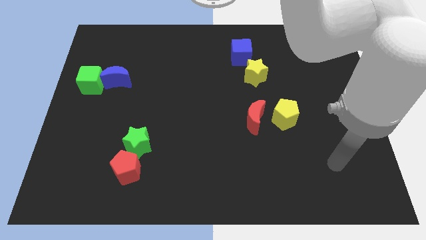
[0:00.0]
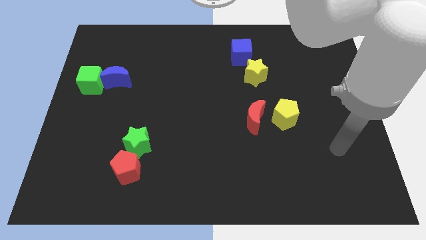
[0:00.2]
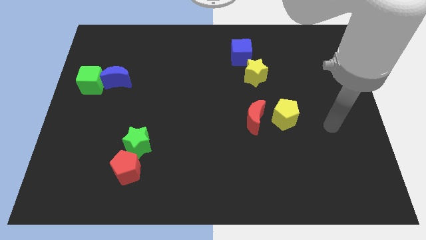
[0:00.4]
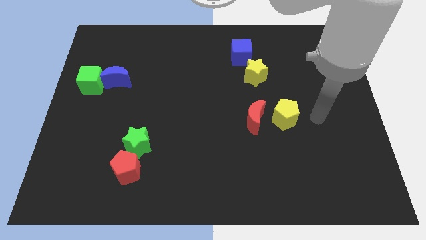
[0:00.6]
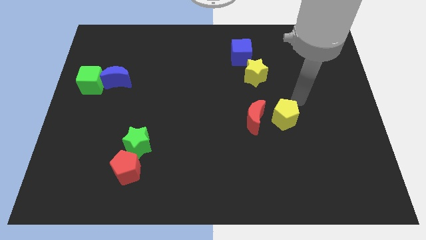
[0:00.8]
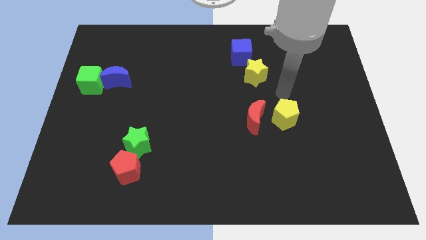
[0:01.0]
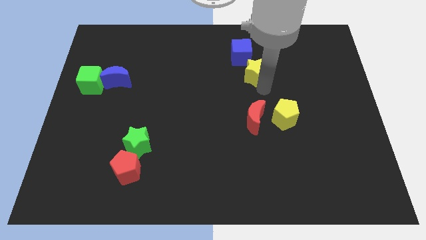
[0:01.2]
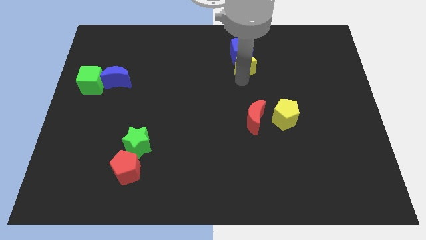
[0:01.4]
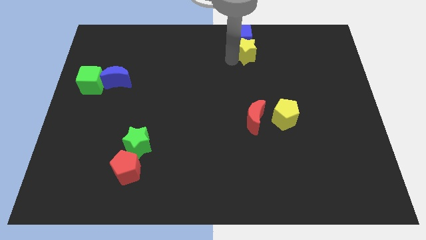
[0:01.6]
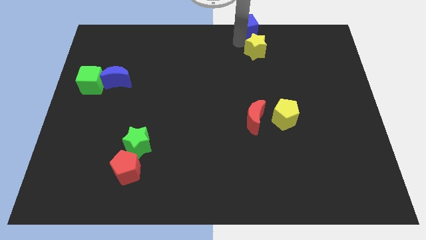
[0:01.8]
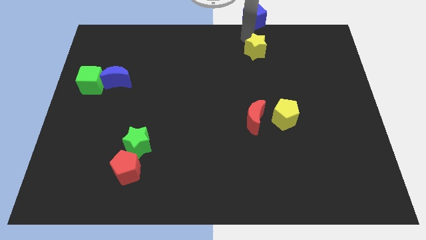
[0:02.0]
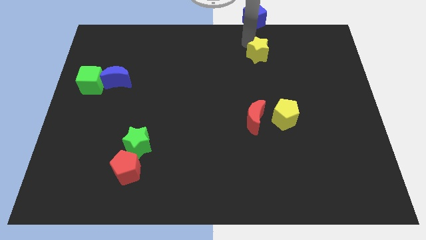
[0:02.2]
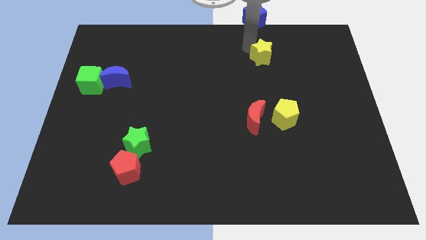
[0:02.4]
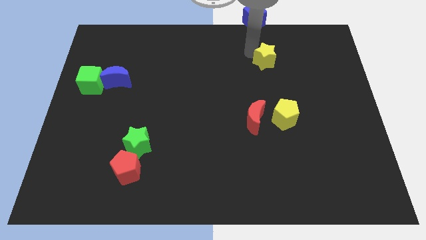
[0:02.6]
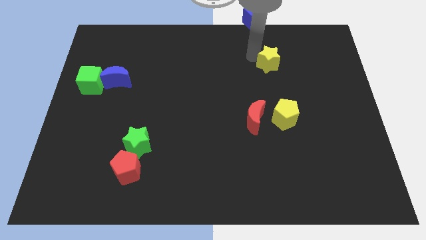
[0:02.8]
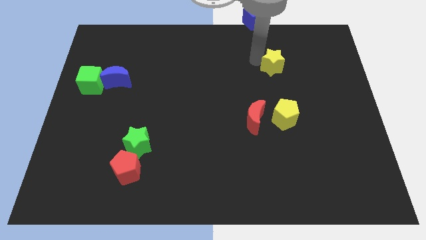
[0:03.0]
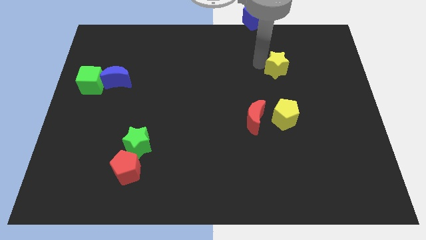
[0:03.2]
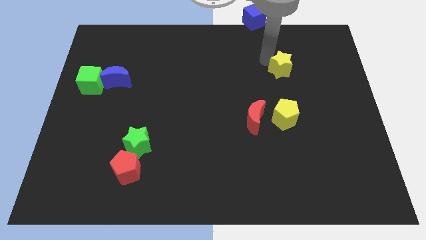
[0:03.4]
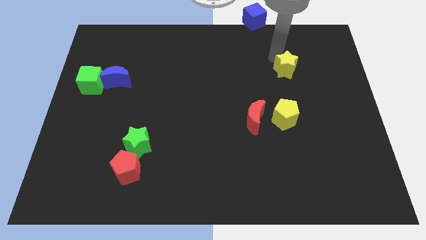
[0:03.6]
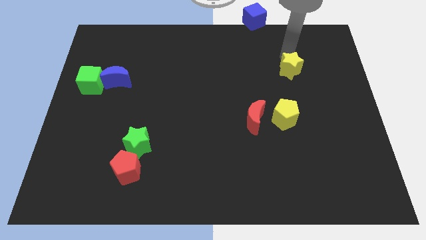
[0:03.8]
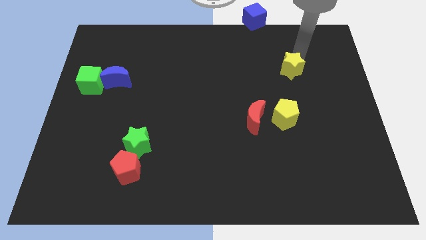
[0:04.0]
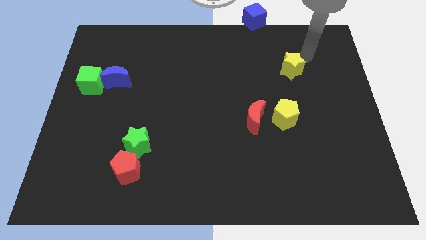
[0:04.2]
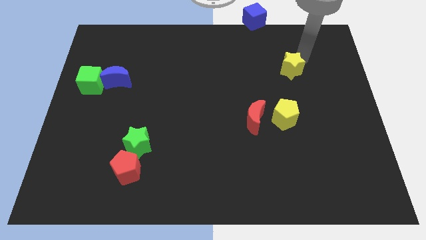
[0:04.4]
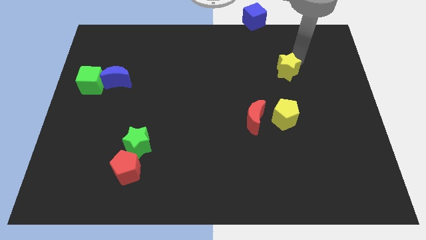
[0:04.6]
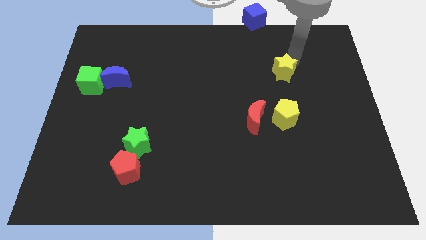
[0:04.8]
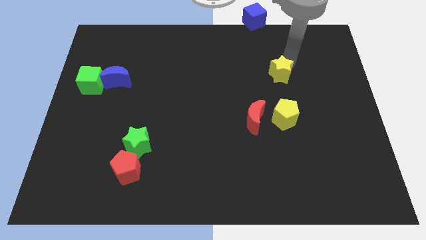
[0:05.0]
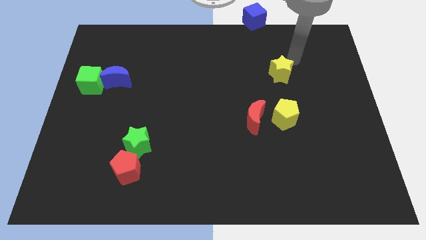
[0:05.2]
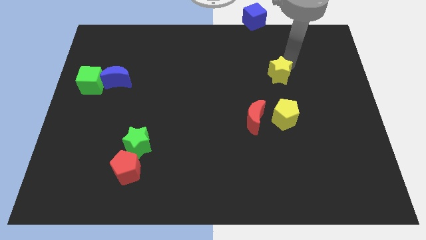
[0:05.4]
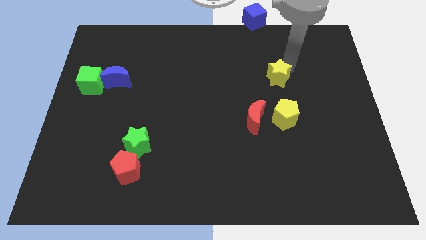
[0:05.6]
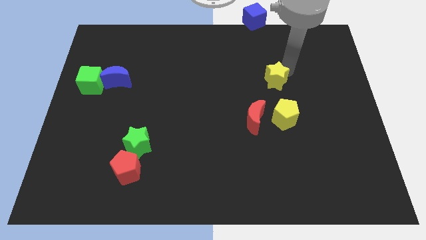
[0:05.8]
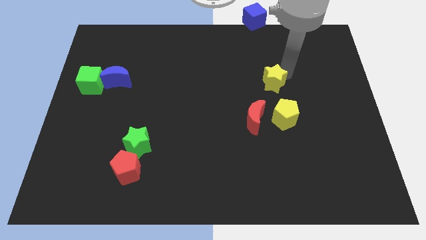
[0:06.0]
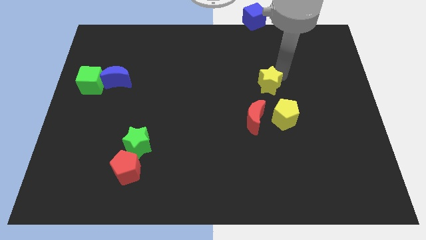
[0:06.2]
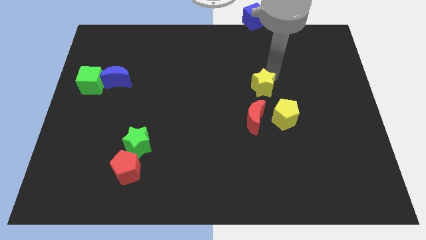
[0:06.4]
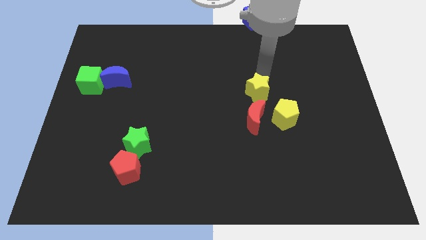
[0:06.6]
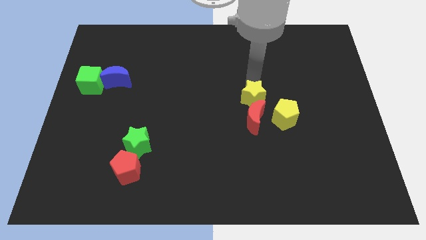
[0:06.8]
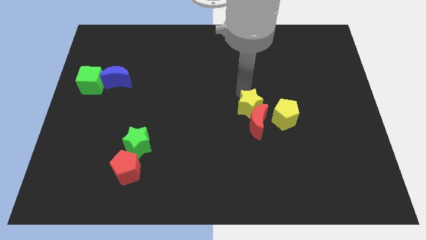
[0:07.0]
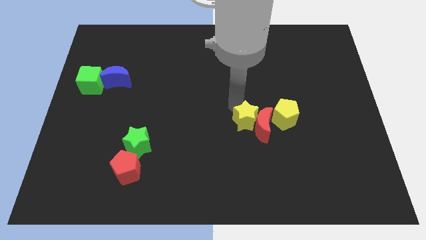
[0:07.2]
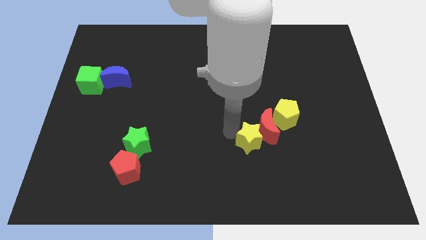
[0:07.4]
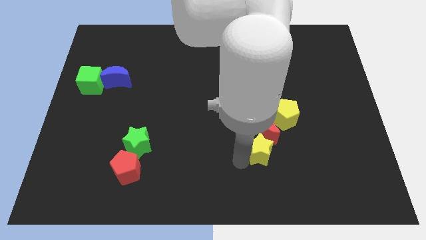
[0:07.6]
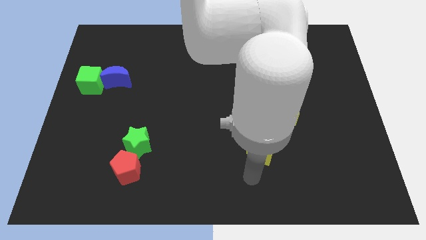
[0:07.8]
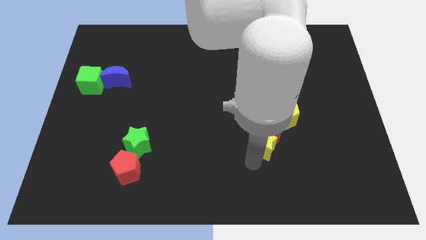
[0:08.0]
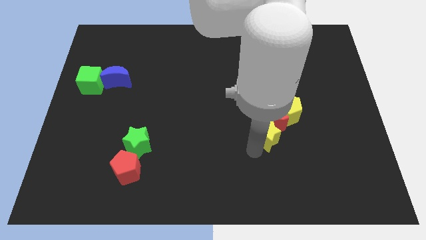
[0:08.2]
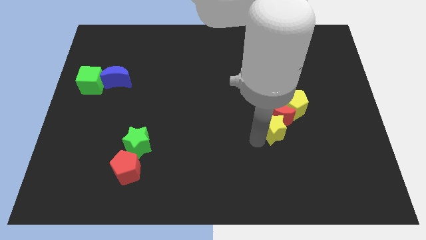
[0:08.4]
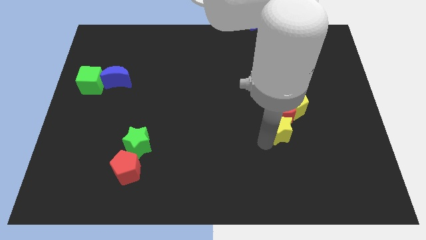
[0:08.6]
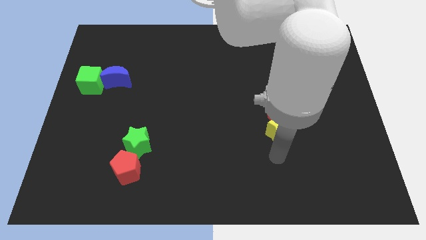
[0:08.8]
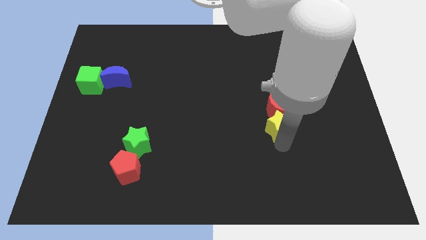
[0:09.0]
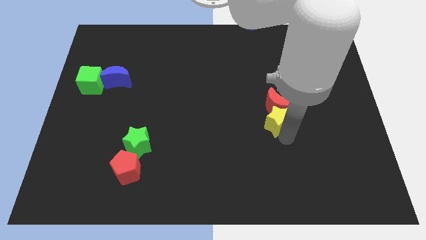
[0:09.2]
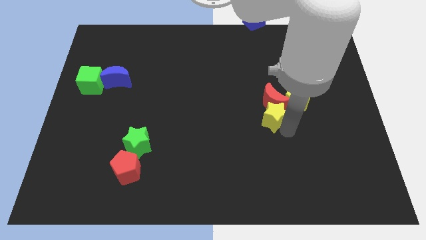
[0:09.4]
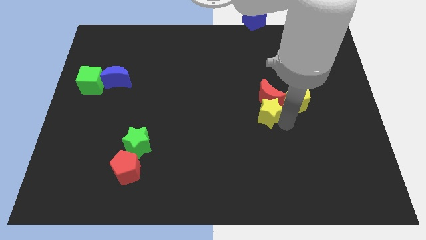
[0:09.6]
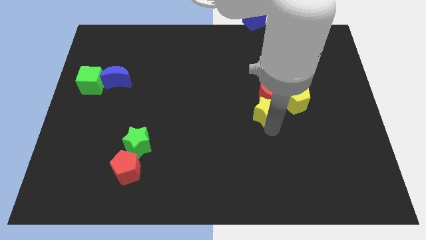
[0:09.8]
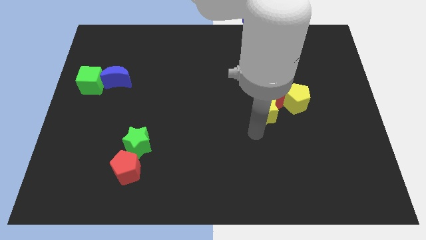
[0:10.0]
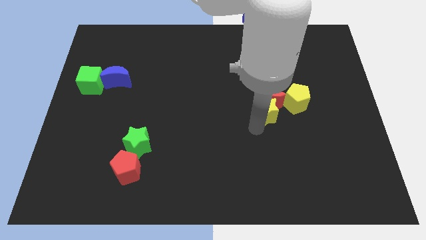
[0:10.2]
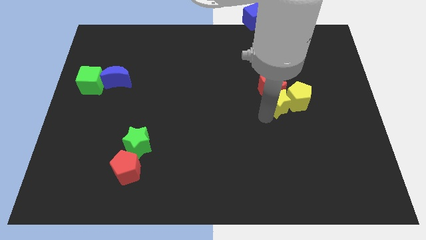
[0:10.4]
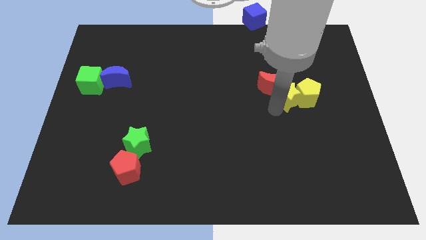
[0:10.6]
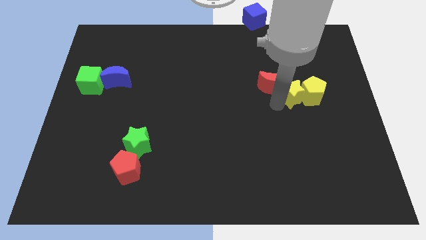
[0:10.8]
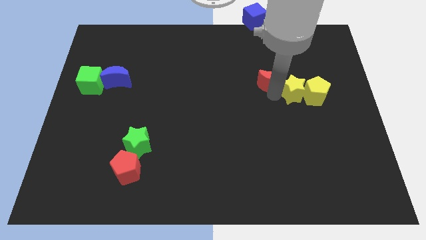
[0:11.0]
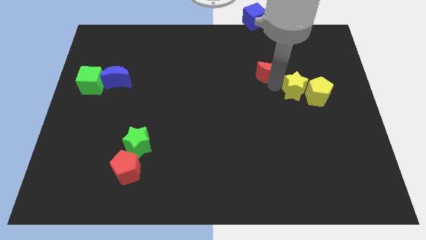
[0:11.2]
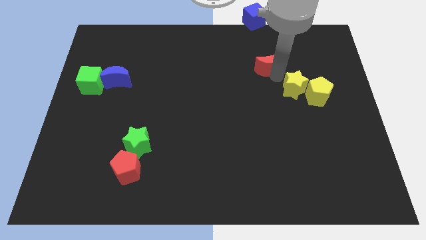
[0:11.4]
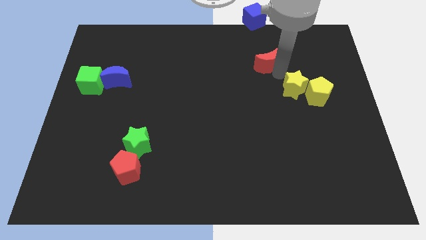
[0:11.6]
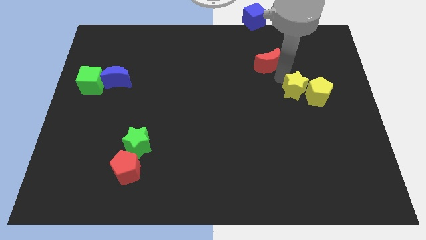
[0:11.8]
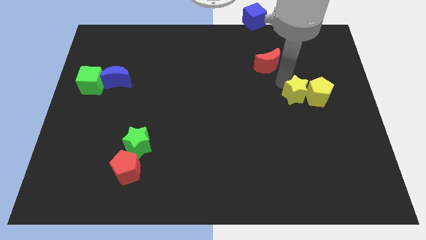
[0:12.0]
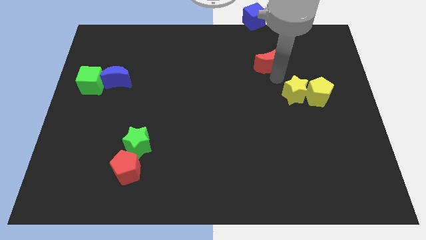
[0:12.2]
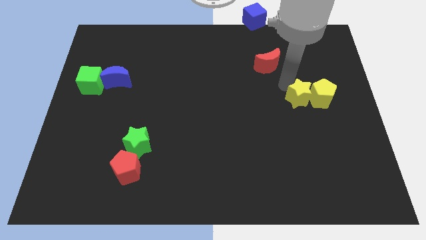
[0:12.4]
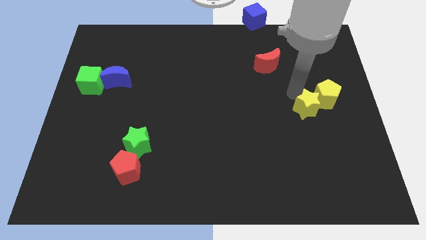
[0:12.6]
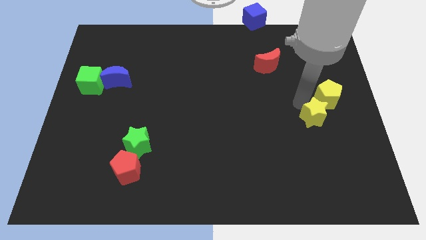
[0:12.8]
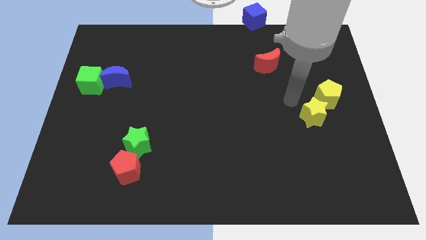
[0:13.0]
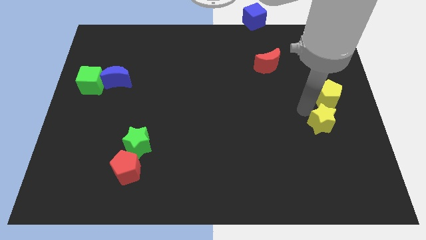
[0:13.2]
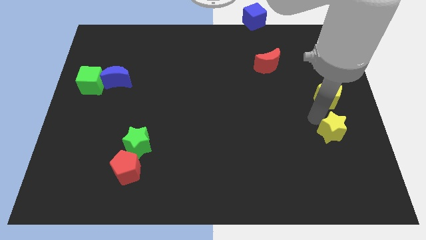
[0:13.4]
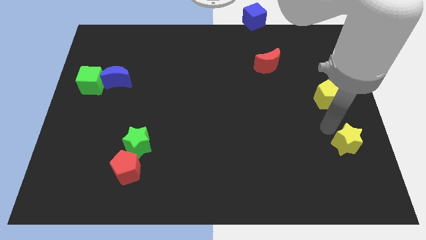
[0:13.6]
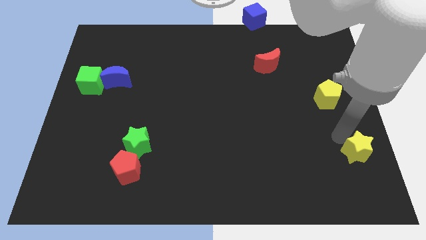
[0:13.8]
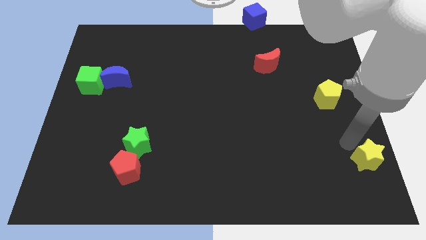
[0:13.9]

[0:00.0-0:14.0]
slide the yellow star to the bottom right corner
